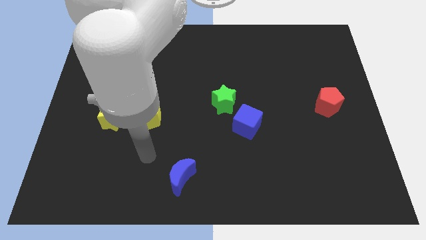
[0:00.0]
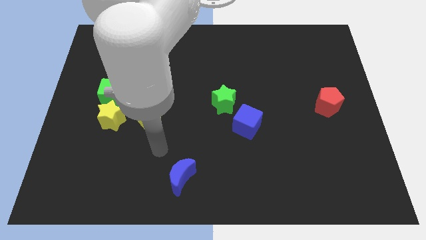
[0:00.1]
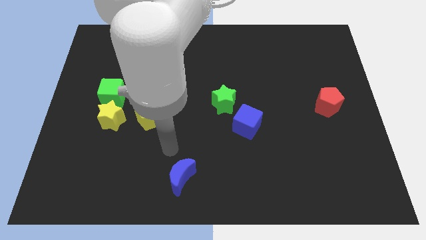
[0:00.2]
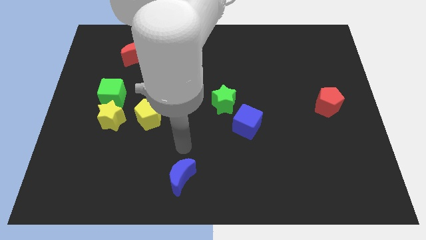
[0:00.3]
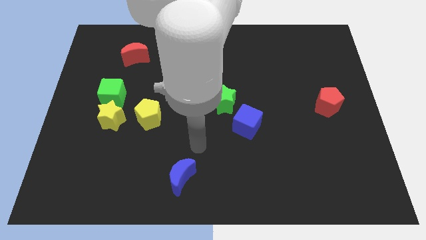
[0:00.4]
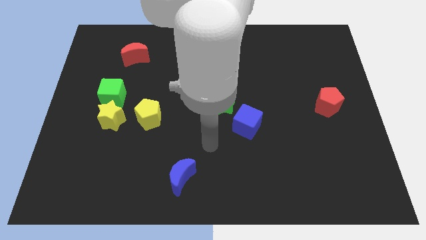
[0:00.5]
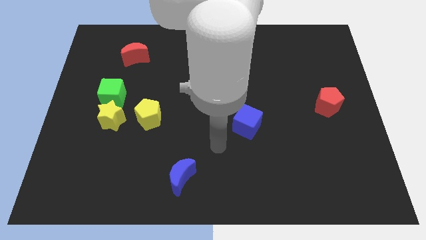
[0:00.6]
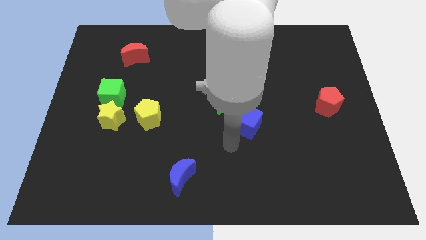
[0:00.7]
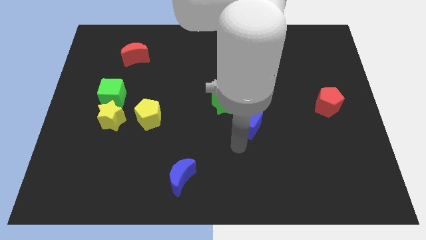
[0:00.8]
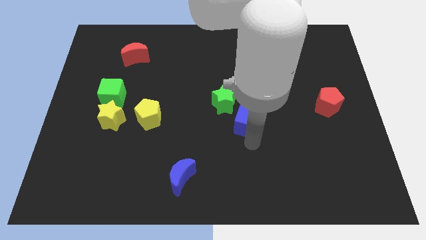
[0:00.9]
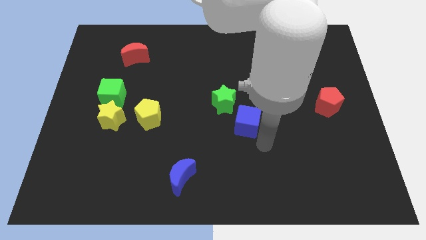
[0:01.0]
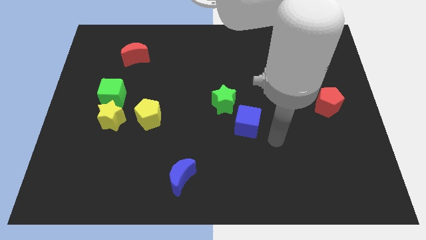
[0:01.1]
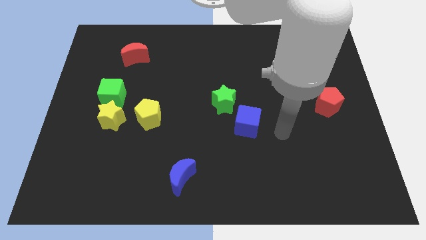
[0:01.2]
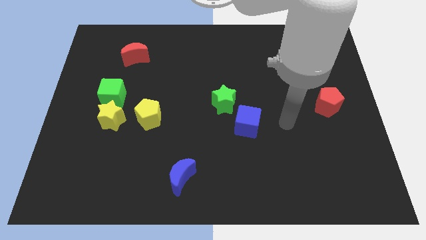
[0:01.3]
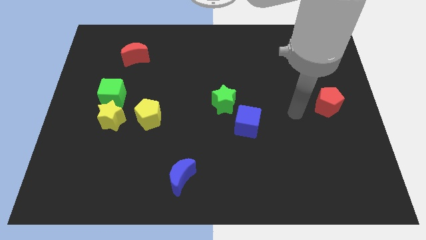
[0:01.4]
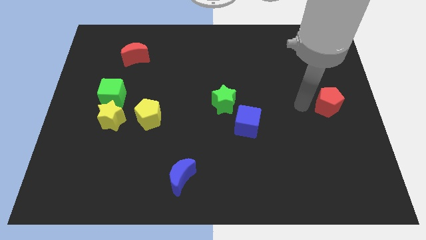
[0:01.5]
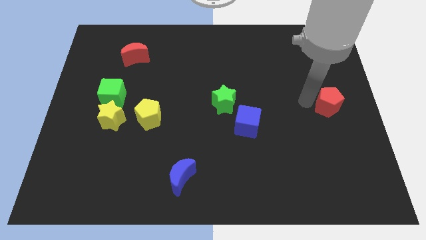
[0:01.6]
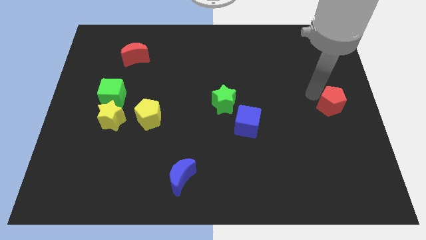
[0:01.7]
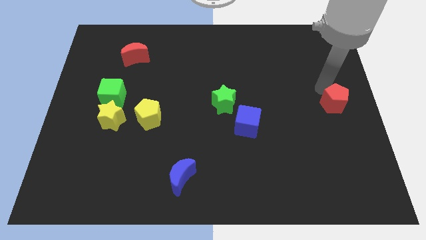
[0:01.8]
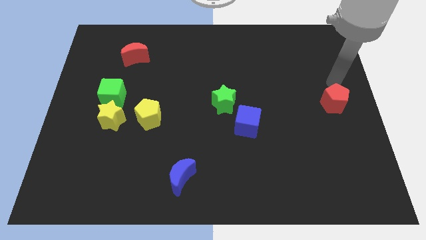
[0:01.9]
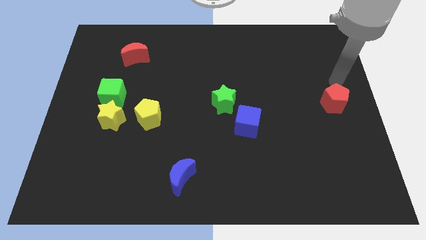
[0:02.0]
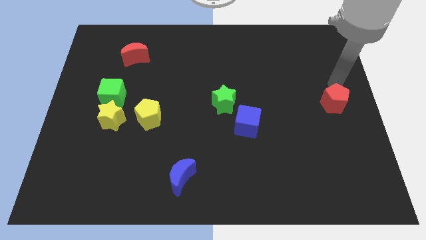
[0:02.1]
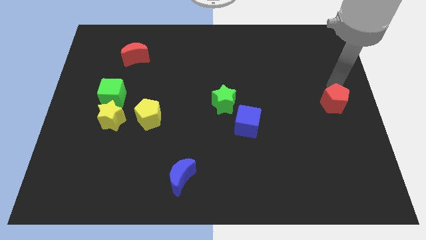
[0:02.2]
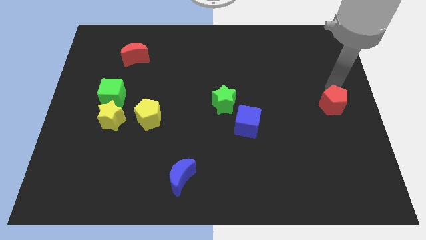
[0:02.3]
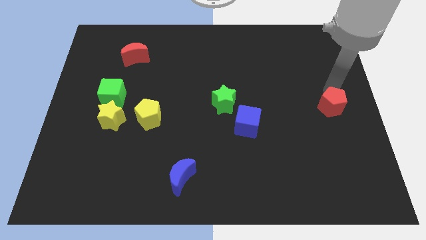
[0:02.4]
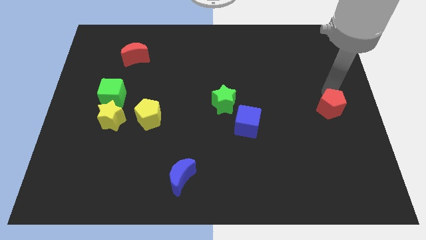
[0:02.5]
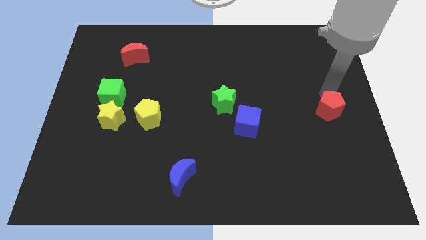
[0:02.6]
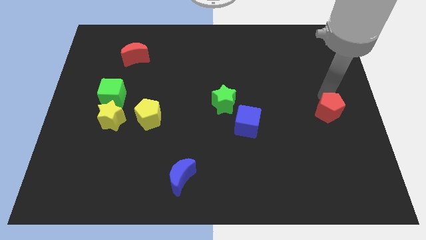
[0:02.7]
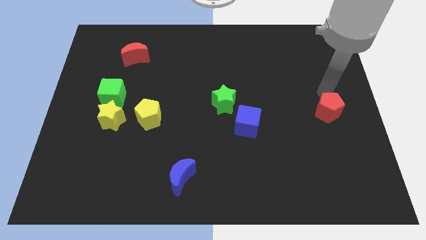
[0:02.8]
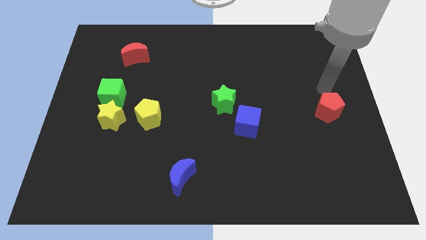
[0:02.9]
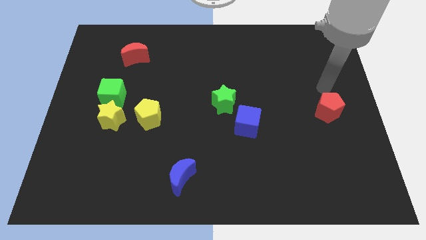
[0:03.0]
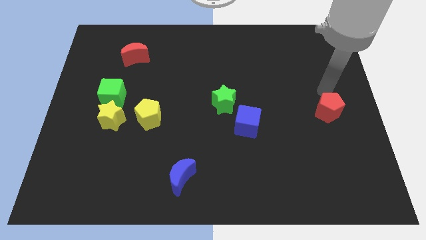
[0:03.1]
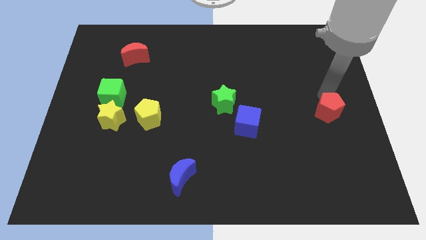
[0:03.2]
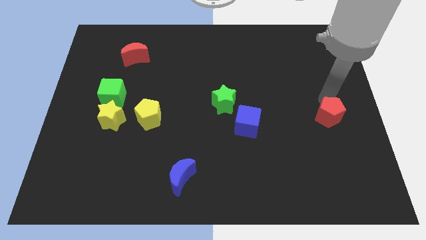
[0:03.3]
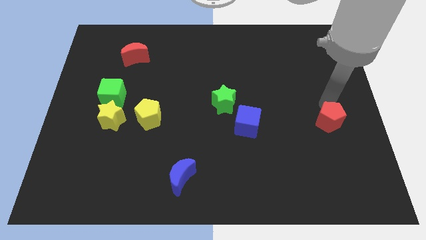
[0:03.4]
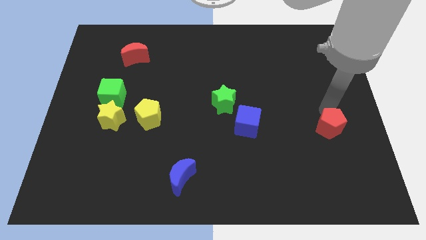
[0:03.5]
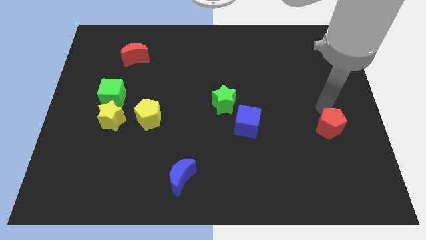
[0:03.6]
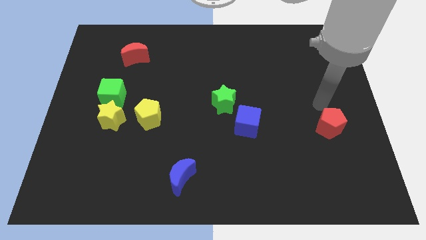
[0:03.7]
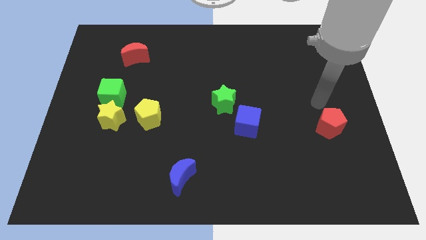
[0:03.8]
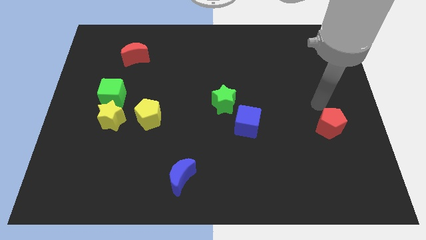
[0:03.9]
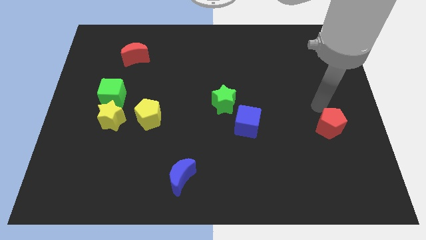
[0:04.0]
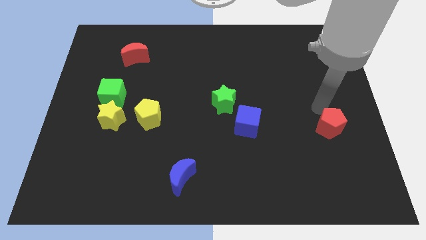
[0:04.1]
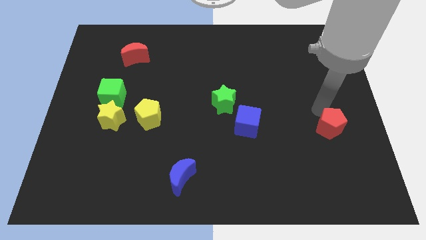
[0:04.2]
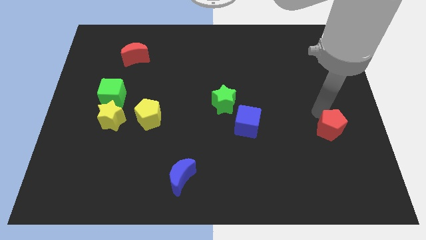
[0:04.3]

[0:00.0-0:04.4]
slightly move the red pentagon down

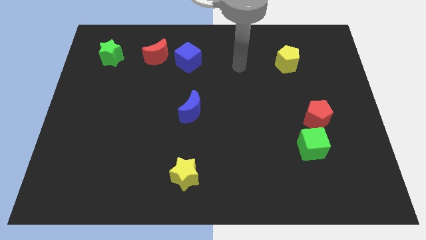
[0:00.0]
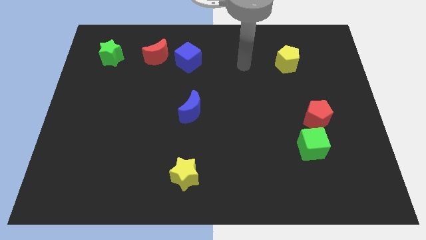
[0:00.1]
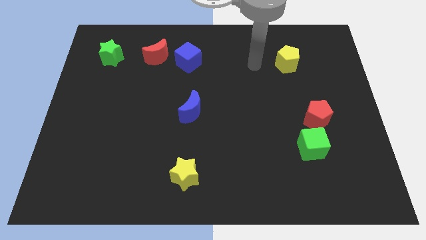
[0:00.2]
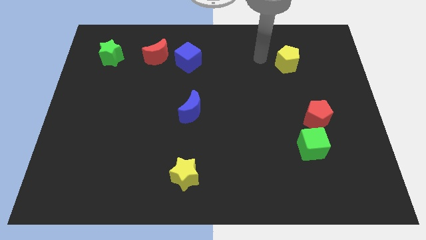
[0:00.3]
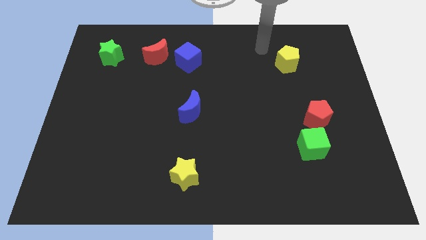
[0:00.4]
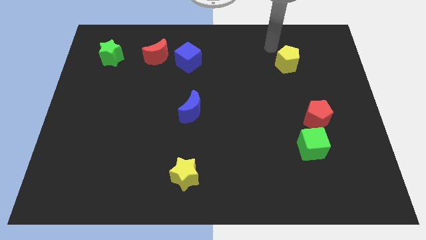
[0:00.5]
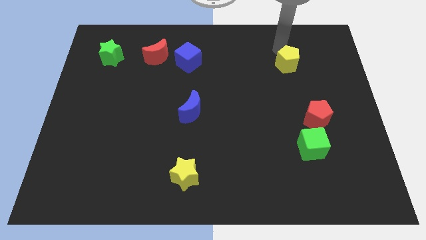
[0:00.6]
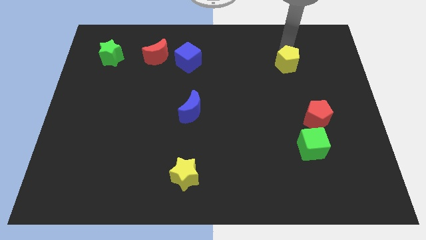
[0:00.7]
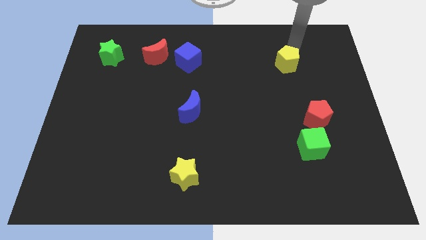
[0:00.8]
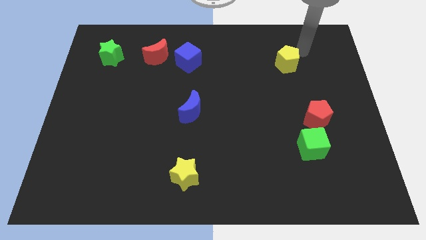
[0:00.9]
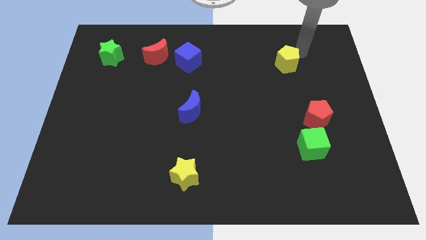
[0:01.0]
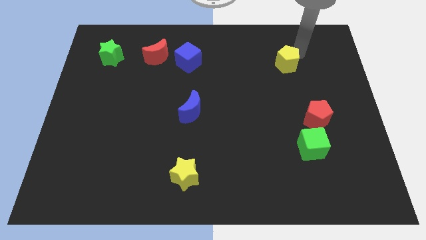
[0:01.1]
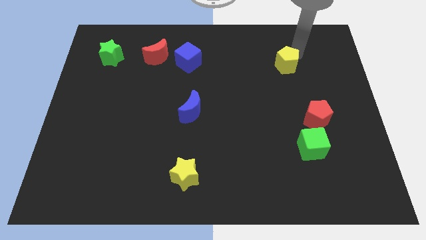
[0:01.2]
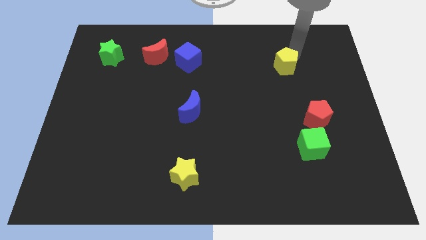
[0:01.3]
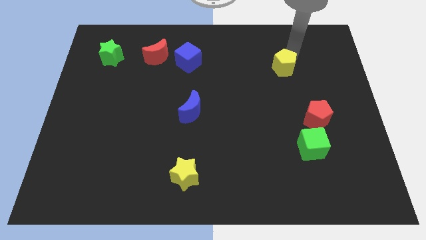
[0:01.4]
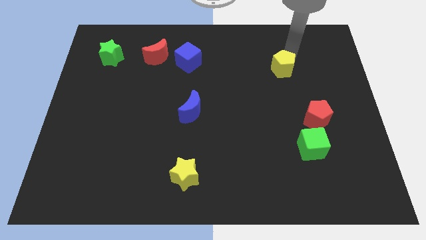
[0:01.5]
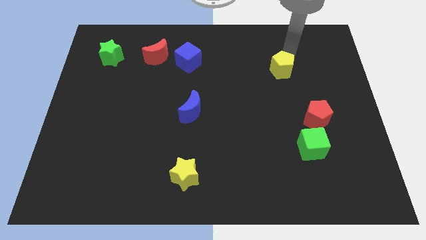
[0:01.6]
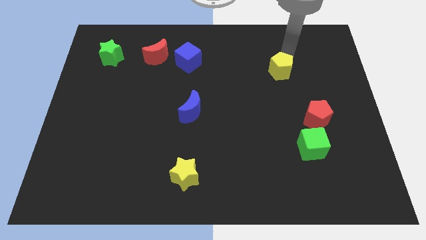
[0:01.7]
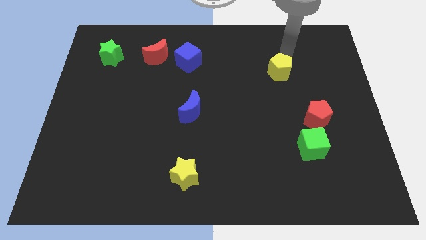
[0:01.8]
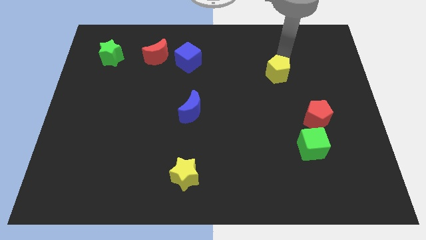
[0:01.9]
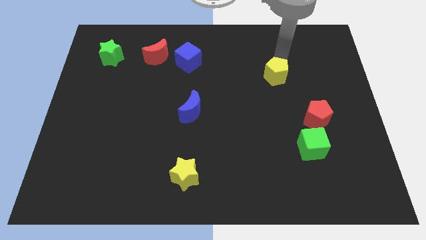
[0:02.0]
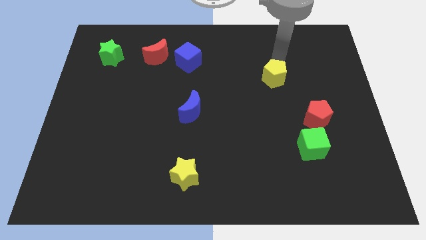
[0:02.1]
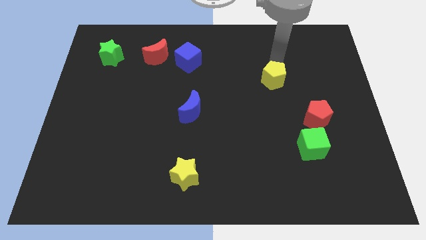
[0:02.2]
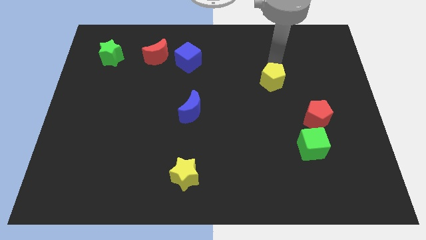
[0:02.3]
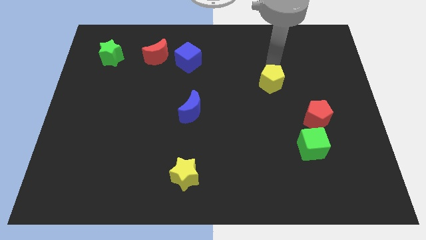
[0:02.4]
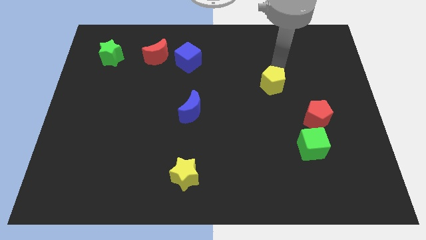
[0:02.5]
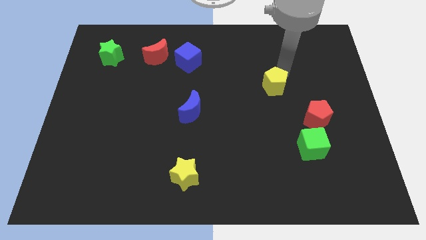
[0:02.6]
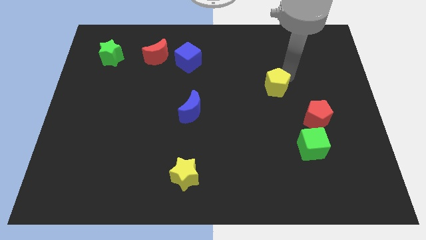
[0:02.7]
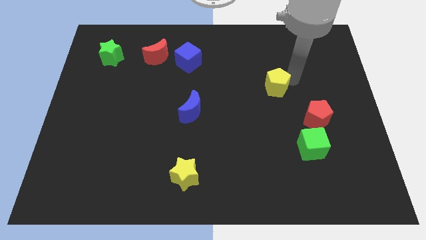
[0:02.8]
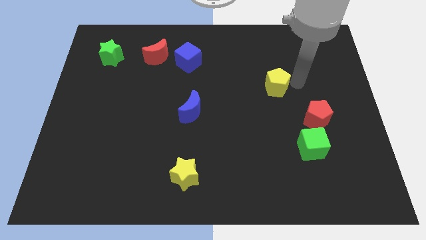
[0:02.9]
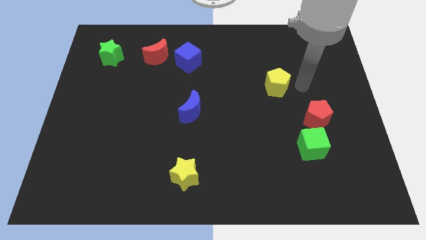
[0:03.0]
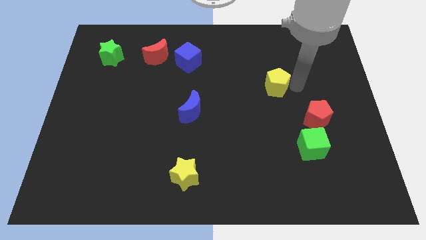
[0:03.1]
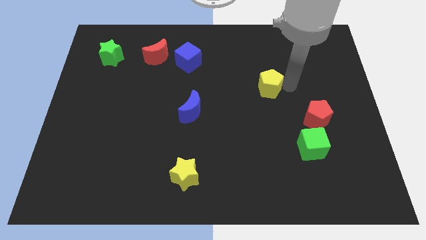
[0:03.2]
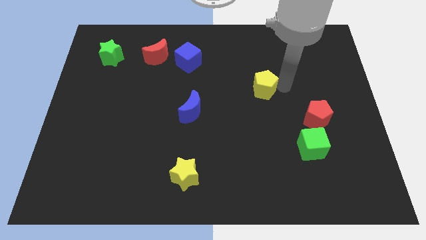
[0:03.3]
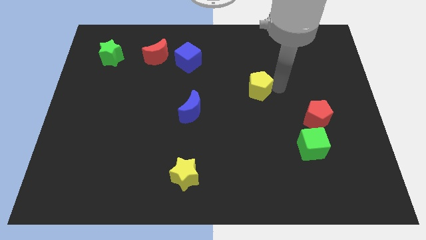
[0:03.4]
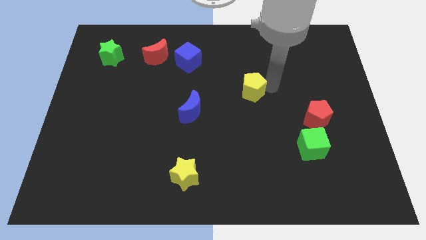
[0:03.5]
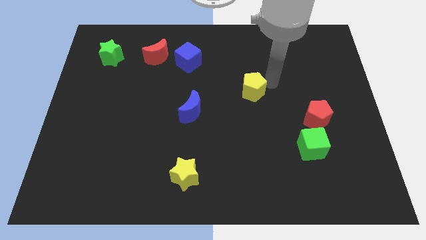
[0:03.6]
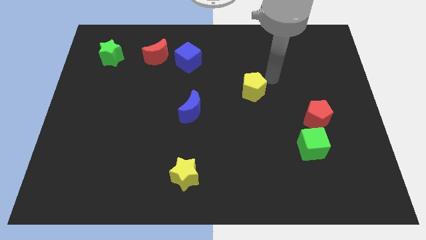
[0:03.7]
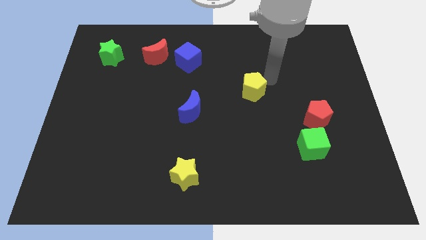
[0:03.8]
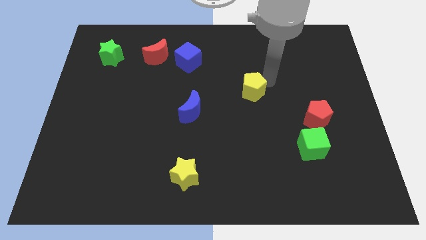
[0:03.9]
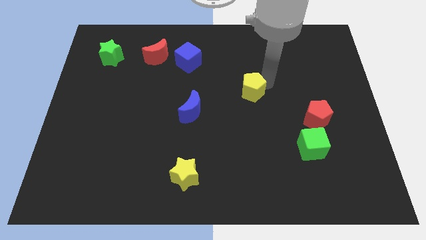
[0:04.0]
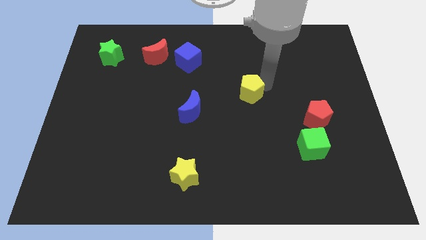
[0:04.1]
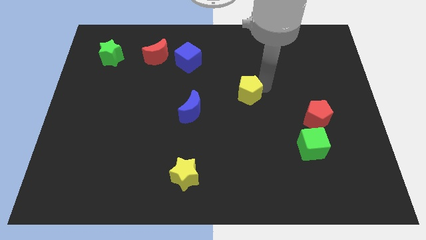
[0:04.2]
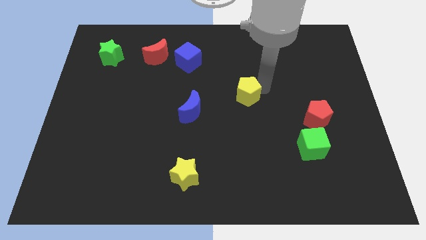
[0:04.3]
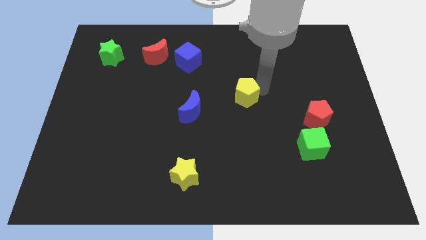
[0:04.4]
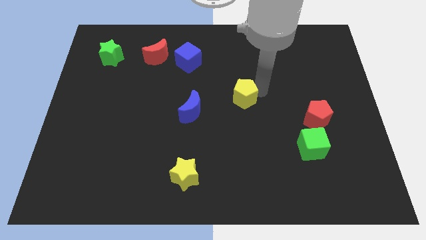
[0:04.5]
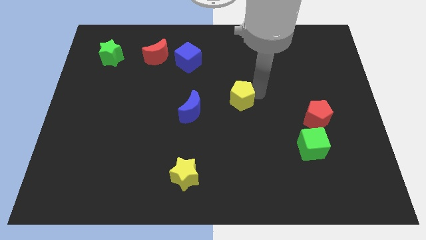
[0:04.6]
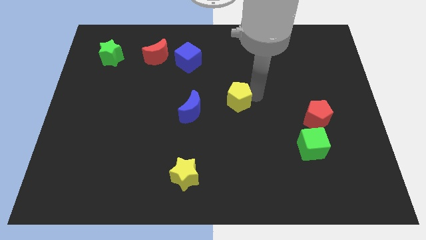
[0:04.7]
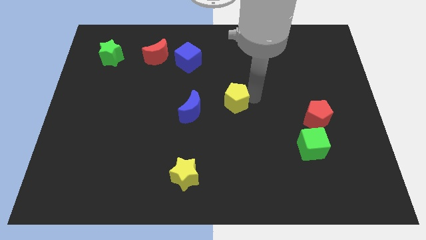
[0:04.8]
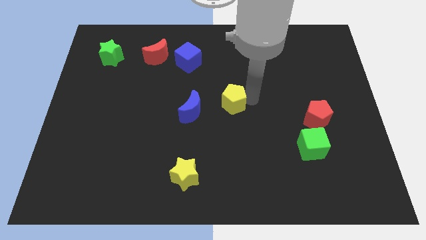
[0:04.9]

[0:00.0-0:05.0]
push the yellow pentagon diagonally downwards and left
